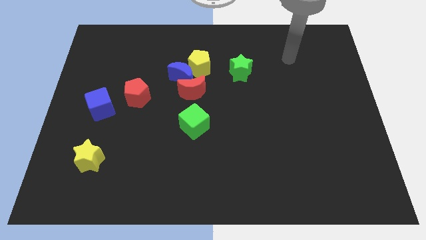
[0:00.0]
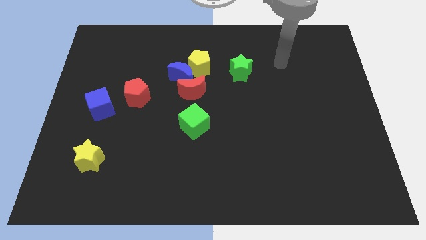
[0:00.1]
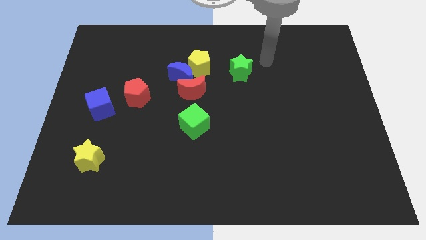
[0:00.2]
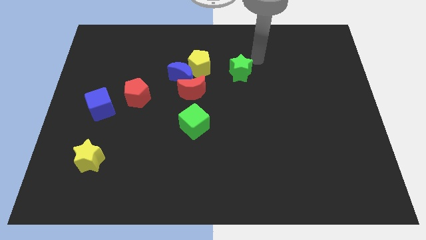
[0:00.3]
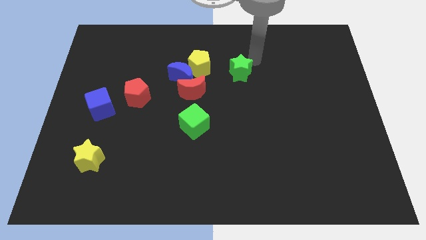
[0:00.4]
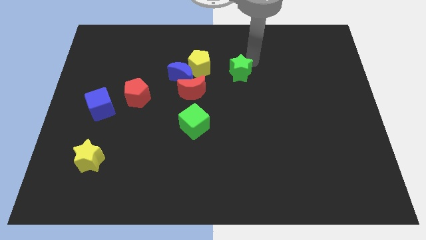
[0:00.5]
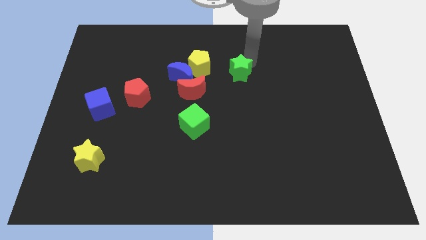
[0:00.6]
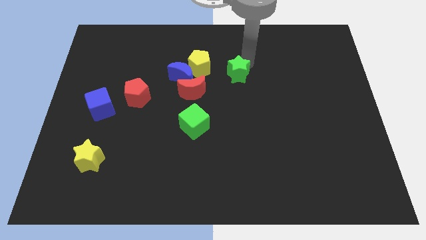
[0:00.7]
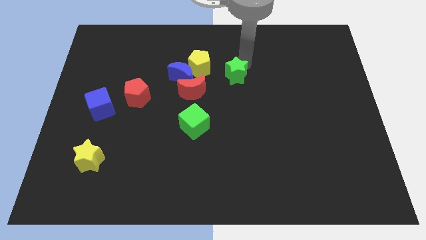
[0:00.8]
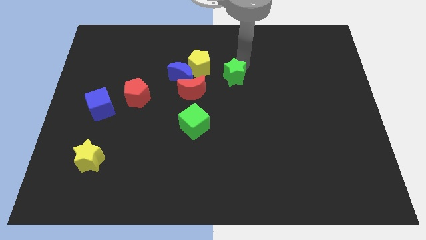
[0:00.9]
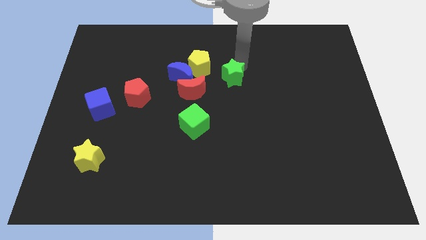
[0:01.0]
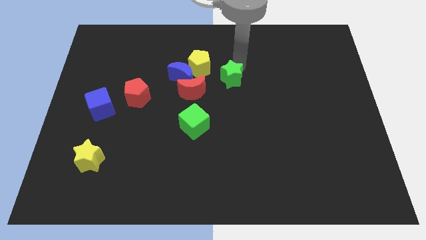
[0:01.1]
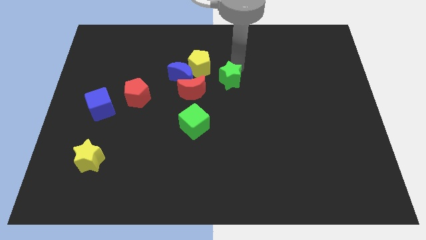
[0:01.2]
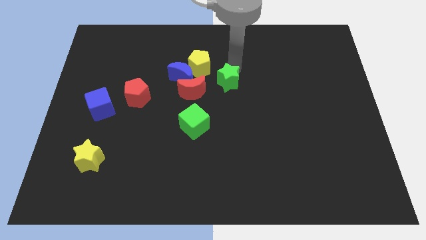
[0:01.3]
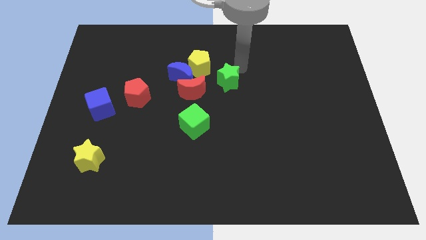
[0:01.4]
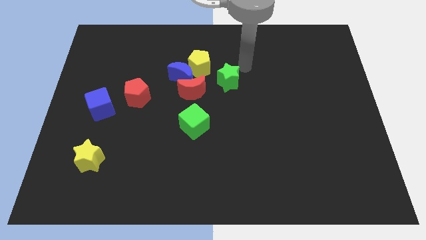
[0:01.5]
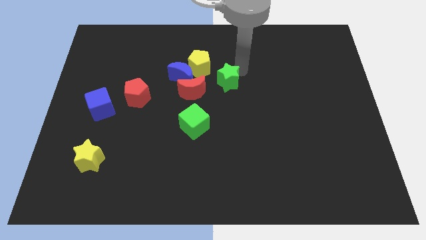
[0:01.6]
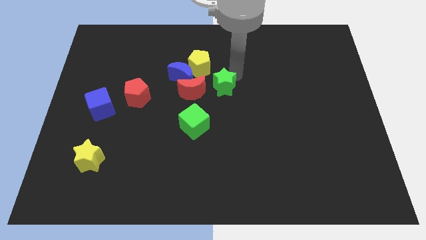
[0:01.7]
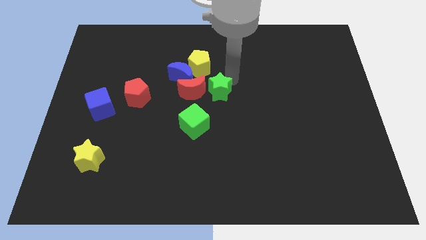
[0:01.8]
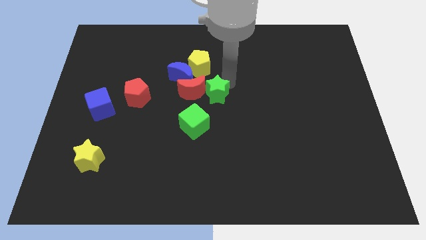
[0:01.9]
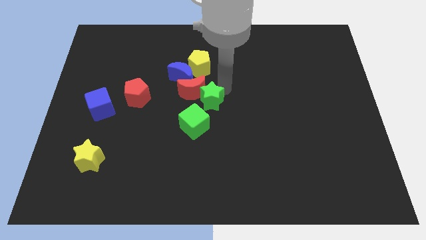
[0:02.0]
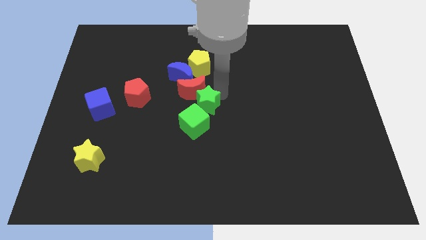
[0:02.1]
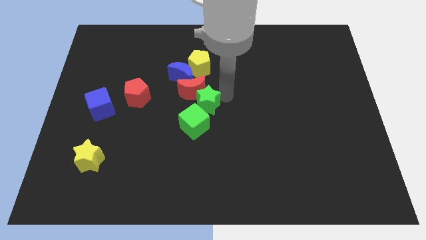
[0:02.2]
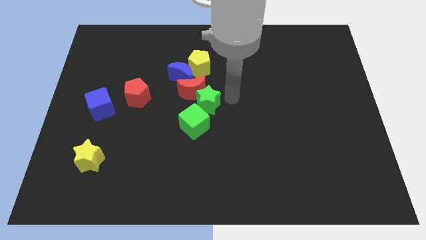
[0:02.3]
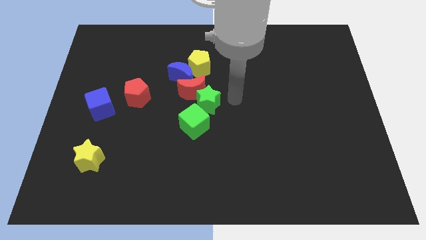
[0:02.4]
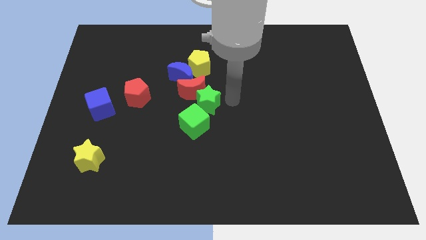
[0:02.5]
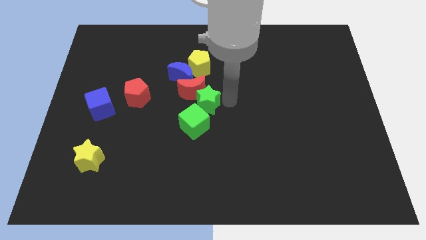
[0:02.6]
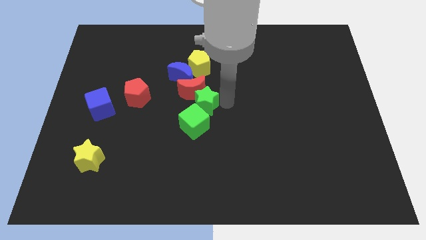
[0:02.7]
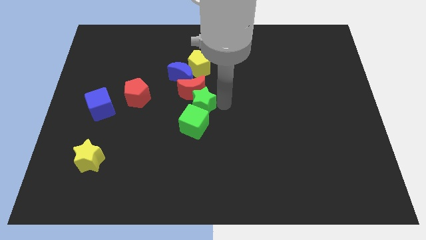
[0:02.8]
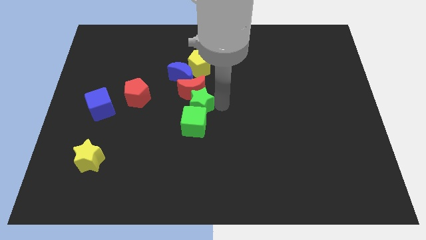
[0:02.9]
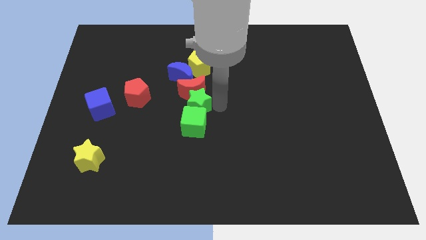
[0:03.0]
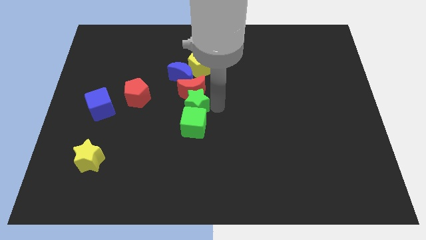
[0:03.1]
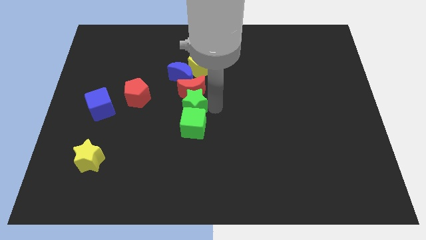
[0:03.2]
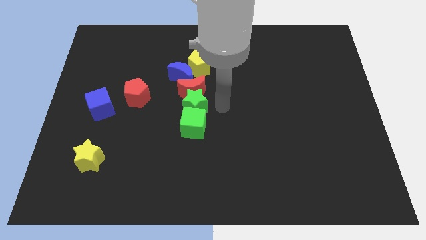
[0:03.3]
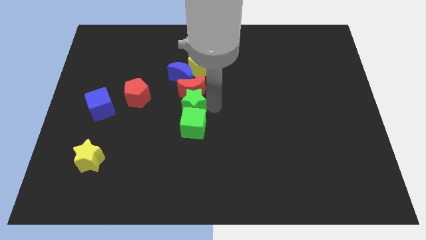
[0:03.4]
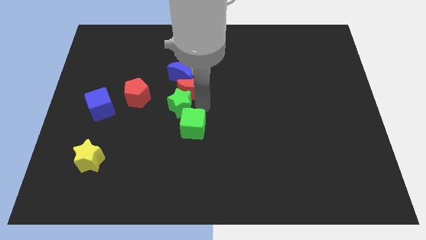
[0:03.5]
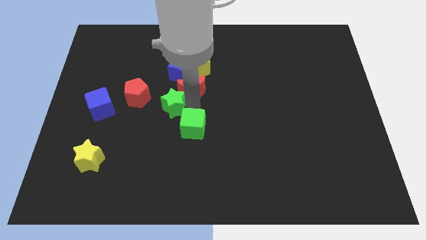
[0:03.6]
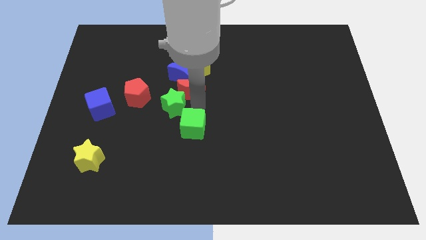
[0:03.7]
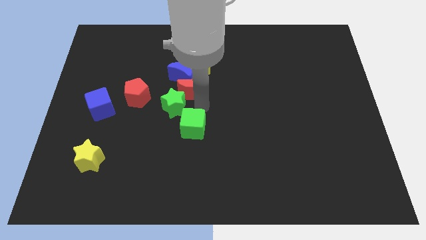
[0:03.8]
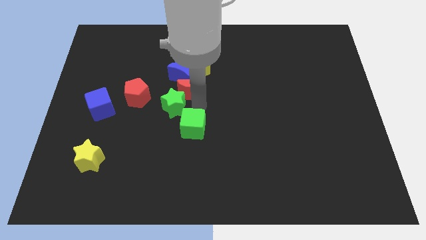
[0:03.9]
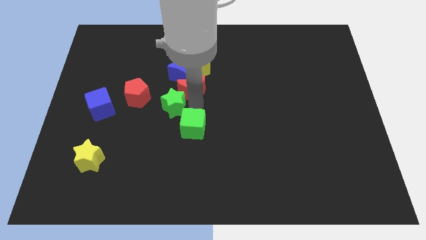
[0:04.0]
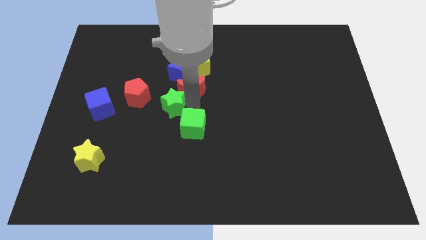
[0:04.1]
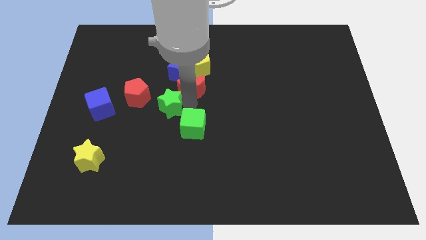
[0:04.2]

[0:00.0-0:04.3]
slide the green star just right of the blue cube

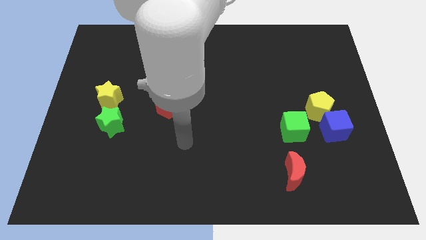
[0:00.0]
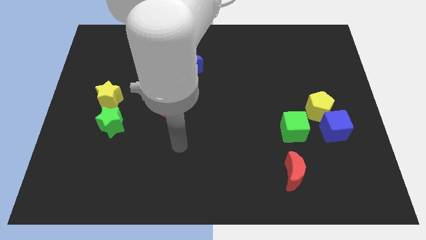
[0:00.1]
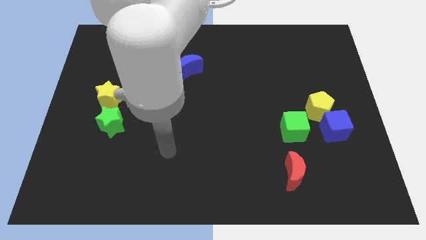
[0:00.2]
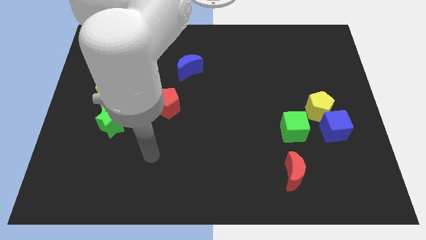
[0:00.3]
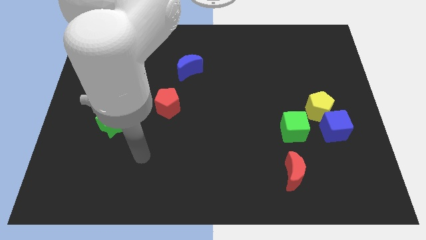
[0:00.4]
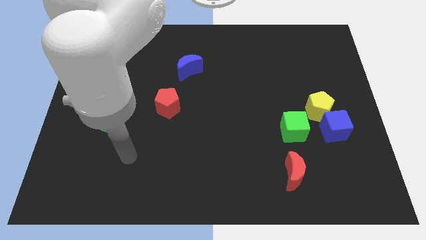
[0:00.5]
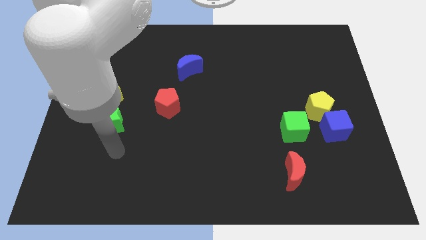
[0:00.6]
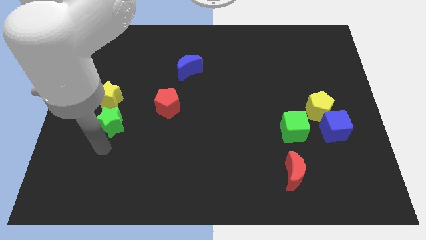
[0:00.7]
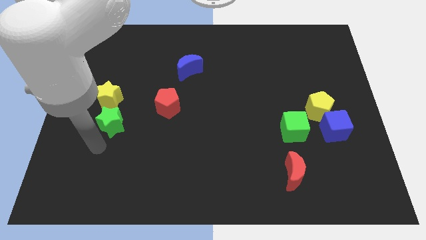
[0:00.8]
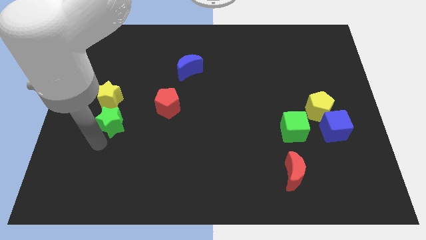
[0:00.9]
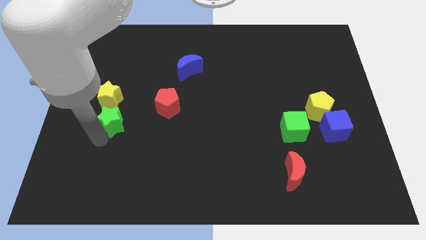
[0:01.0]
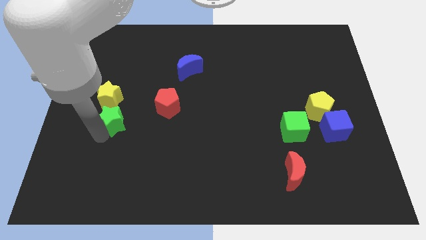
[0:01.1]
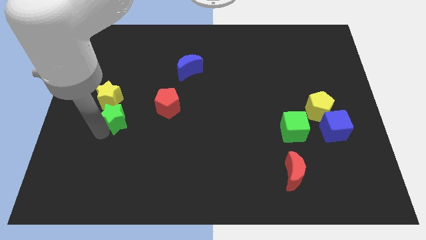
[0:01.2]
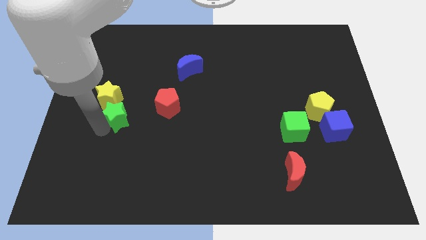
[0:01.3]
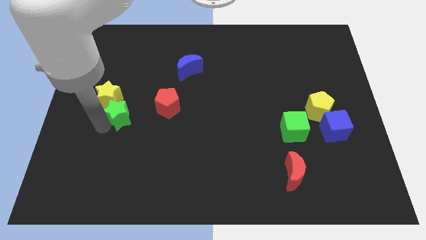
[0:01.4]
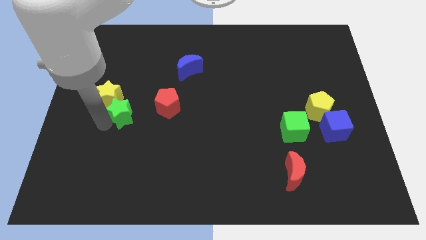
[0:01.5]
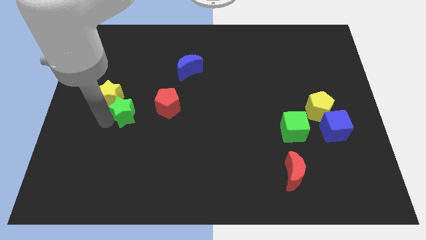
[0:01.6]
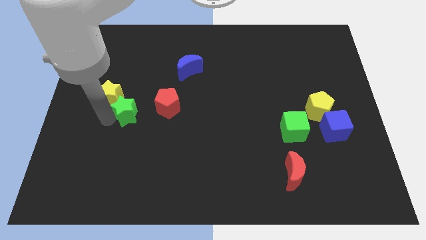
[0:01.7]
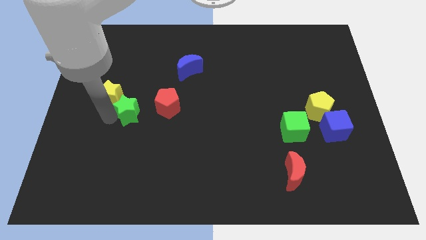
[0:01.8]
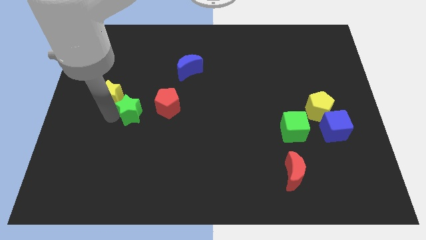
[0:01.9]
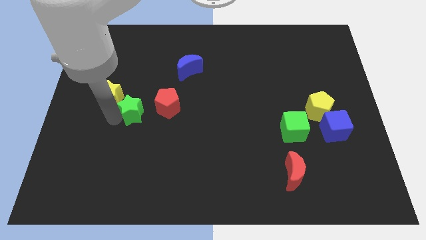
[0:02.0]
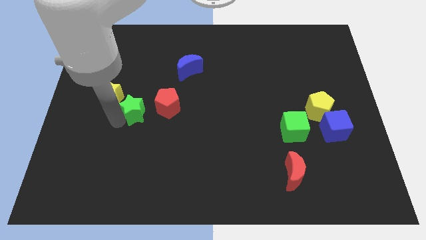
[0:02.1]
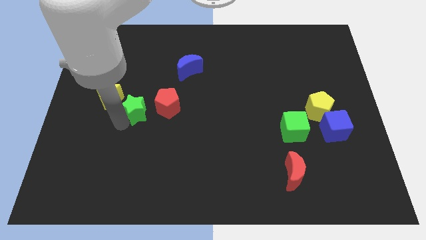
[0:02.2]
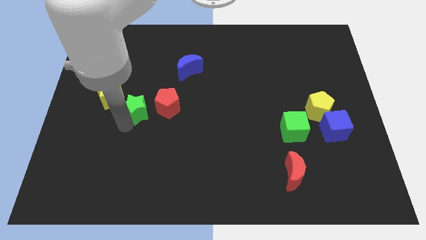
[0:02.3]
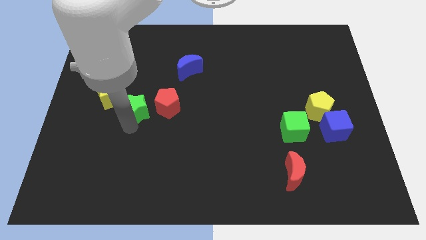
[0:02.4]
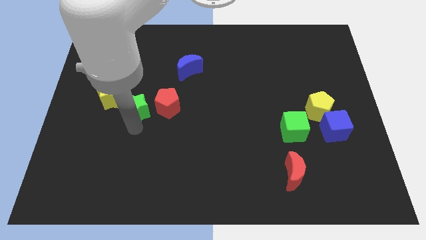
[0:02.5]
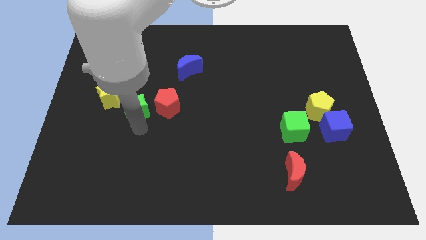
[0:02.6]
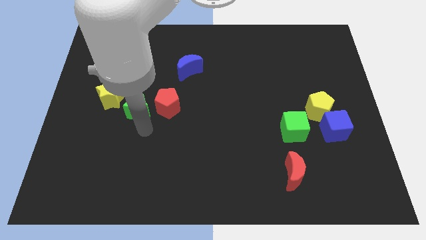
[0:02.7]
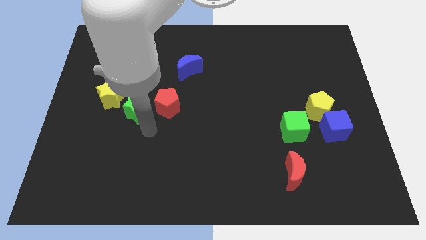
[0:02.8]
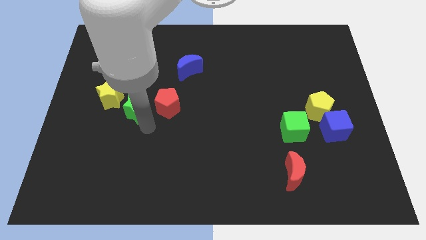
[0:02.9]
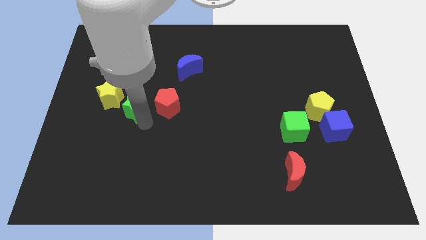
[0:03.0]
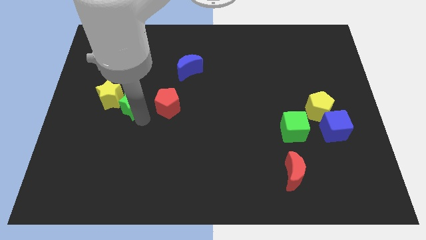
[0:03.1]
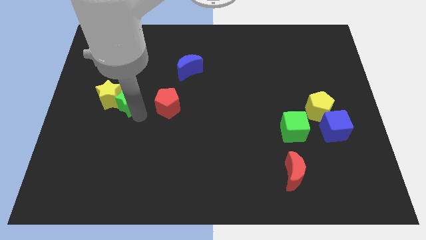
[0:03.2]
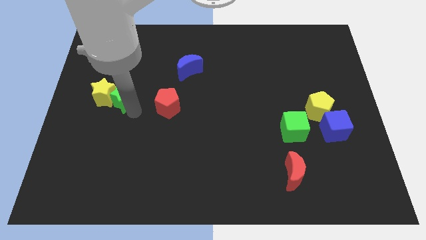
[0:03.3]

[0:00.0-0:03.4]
slide the green star to the top right of the yellow star
